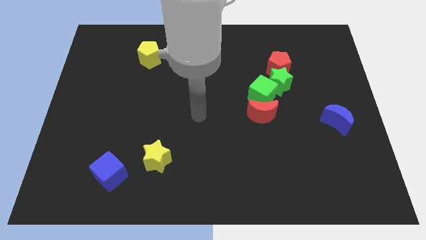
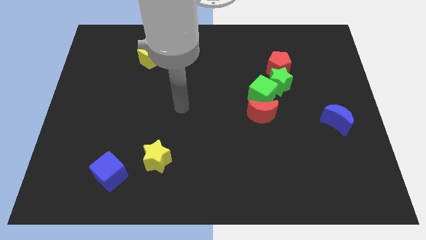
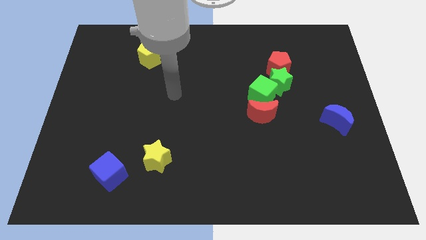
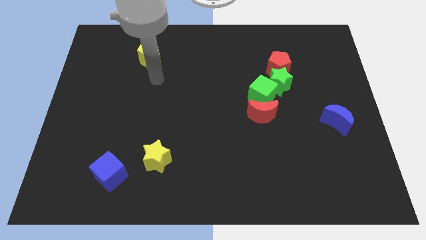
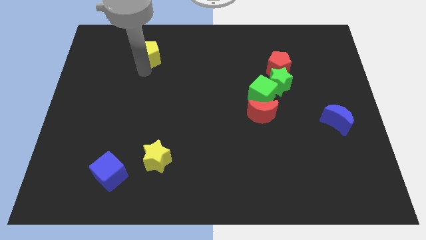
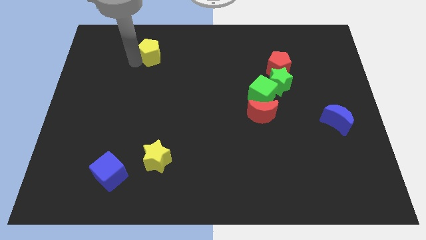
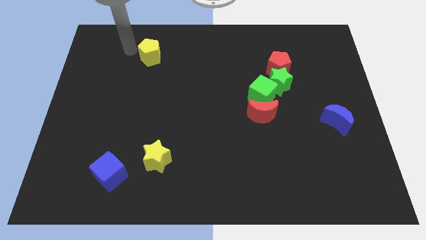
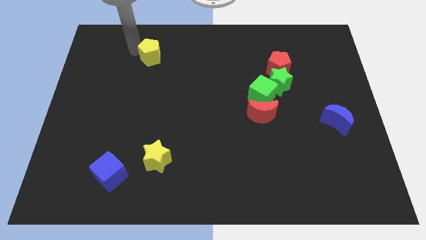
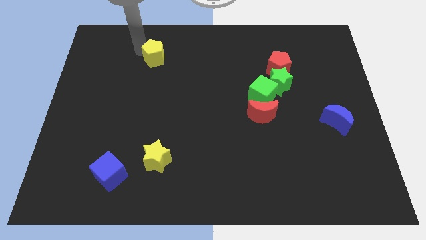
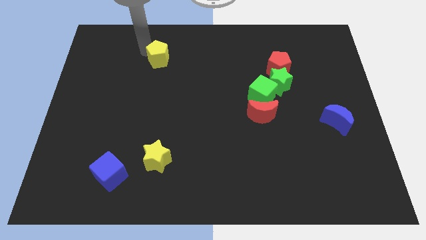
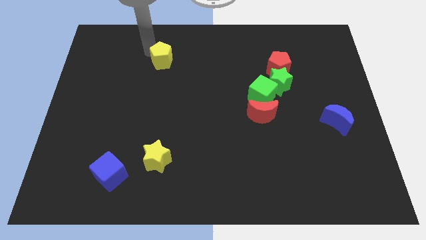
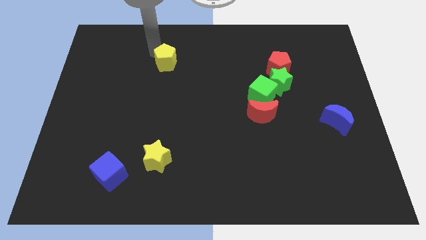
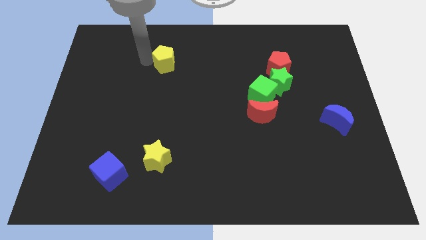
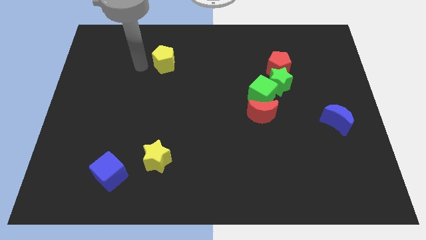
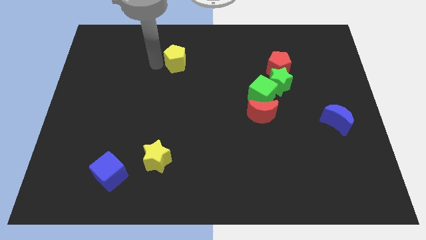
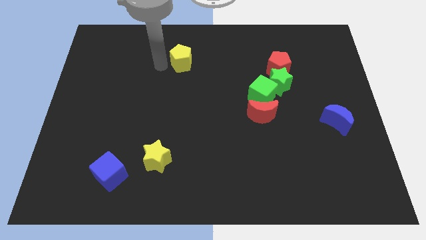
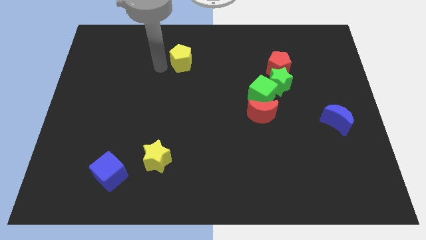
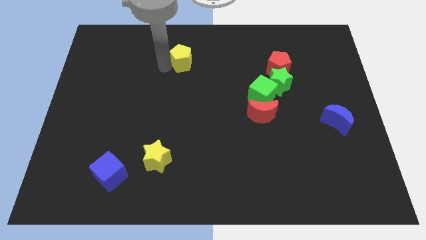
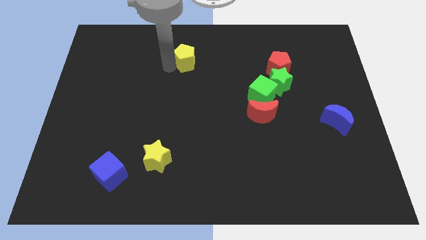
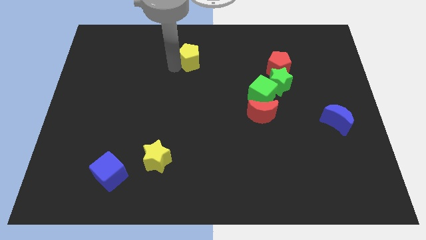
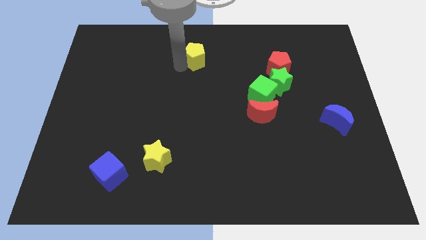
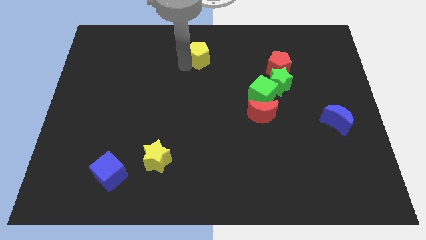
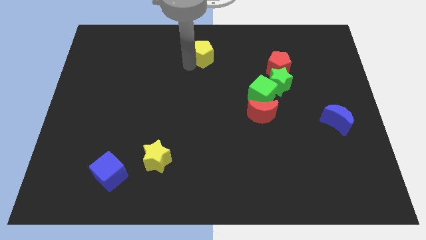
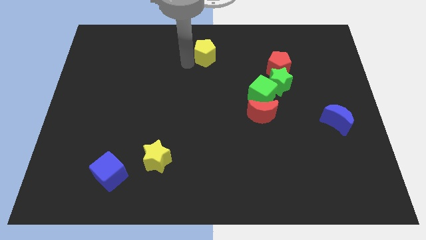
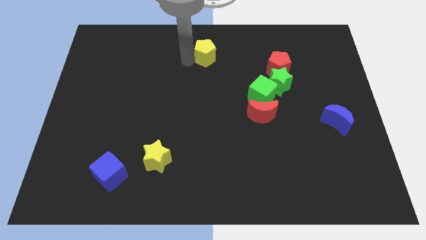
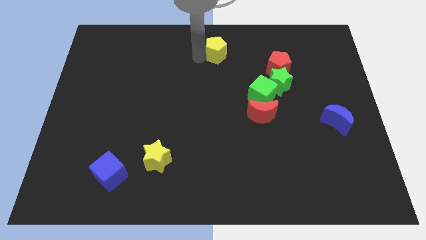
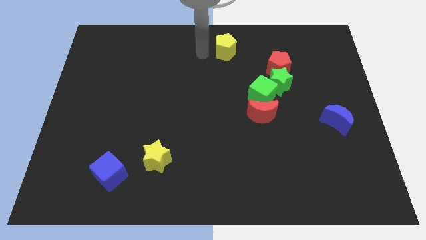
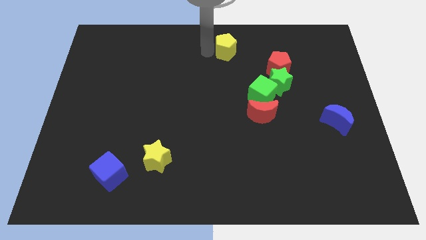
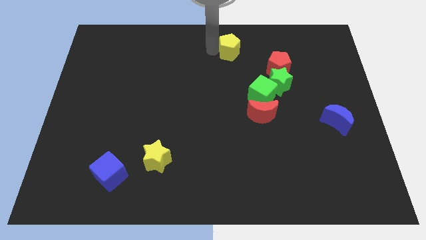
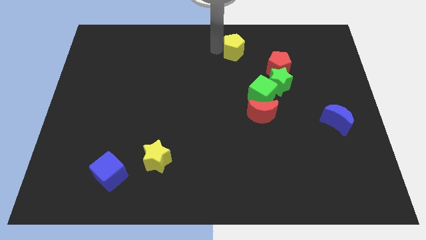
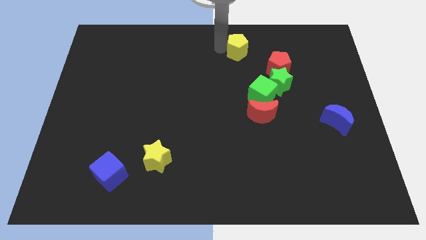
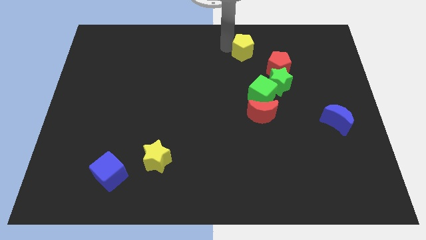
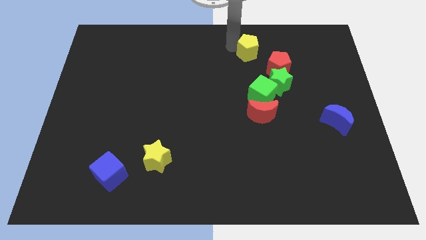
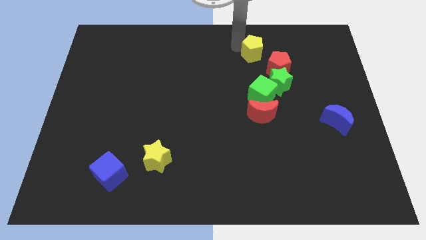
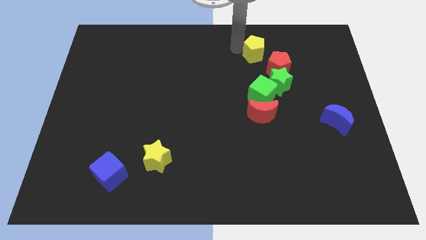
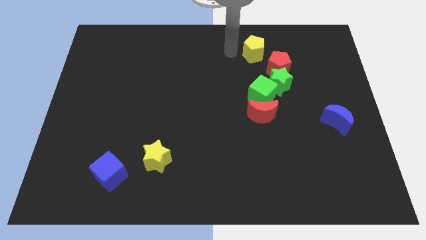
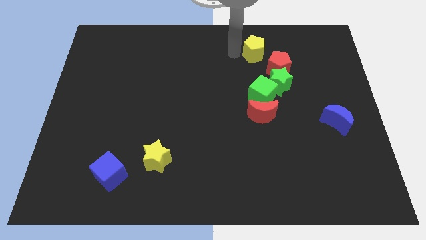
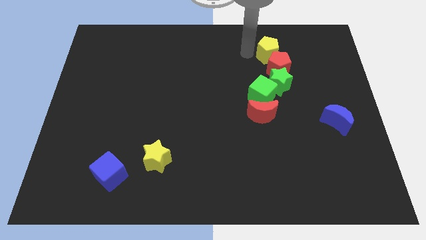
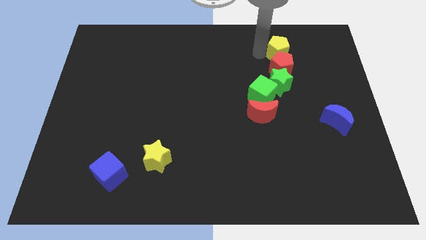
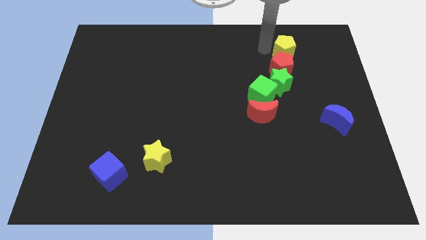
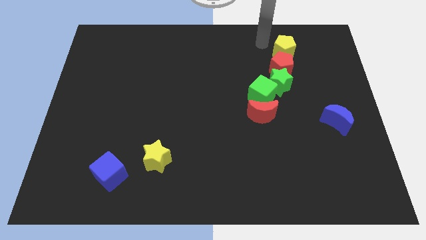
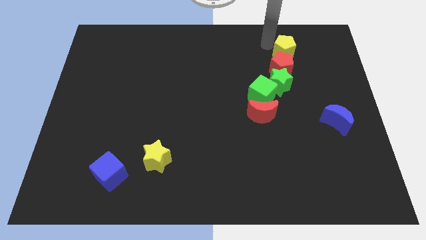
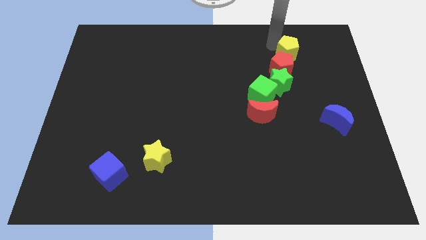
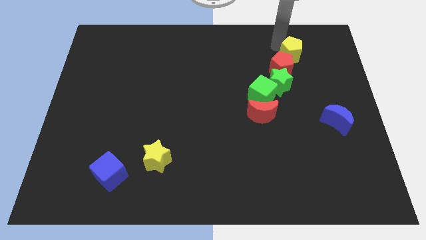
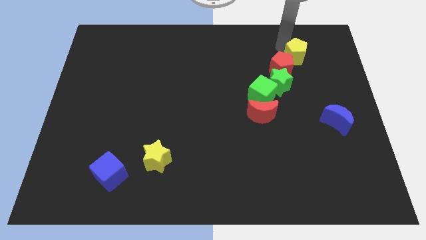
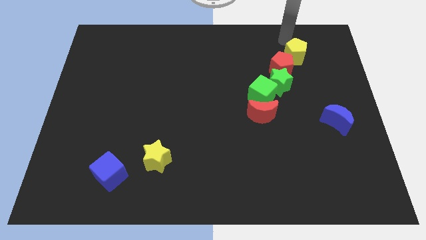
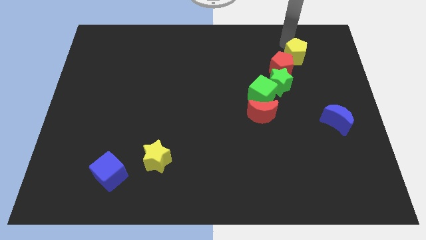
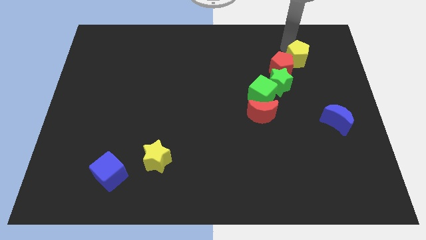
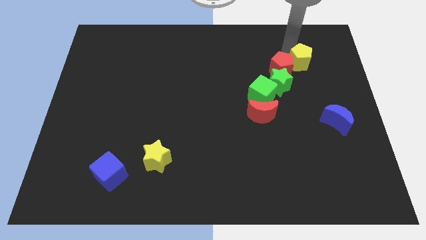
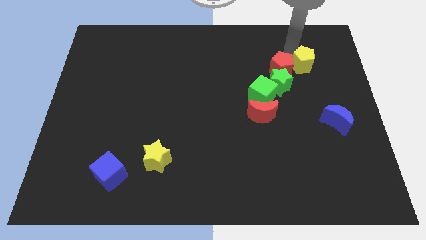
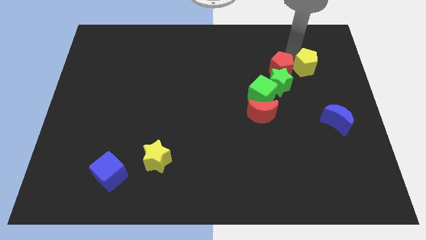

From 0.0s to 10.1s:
put the yellow pentagon diagonally down and to the right of the red pentagon

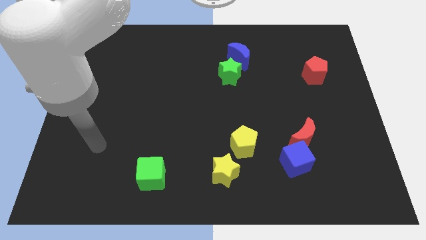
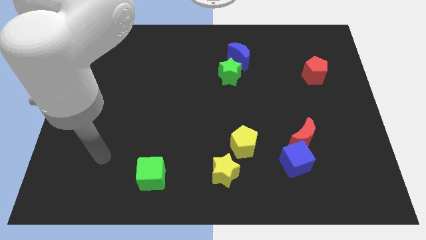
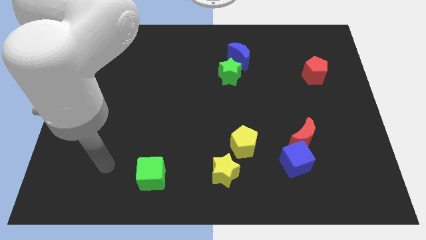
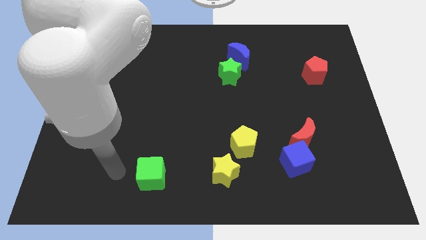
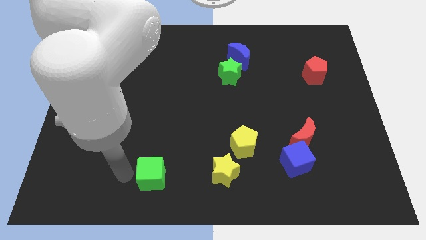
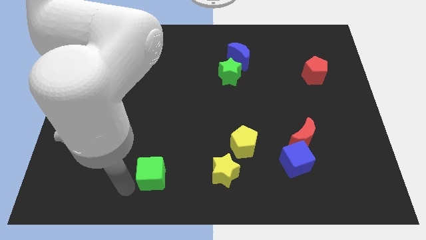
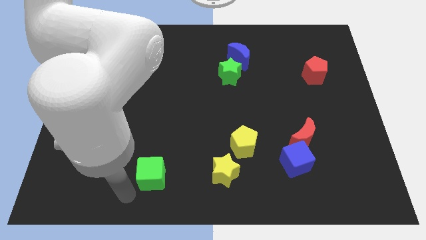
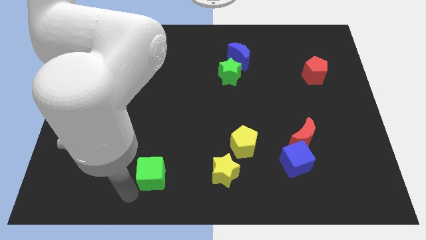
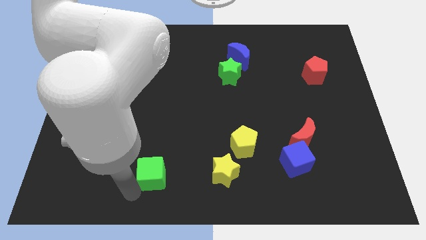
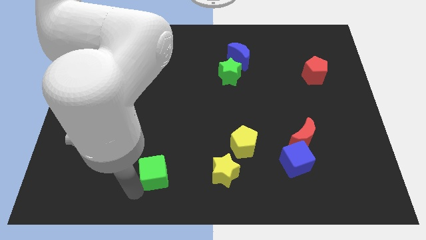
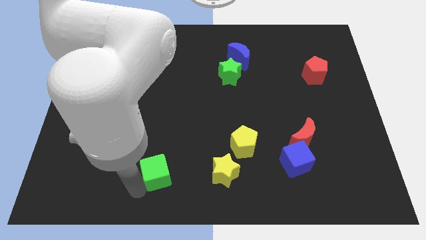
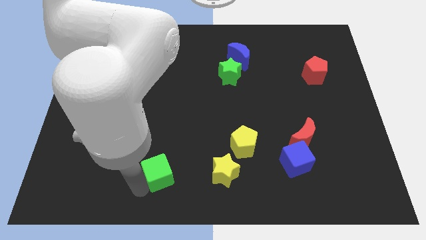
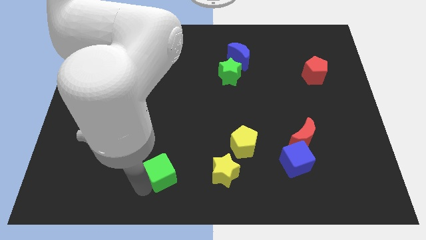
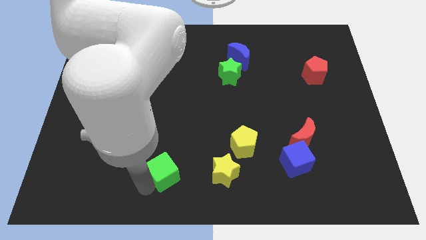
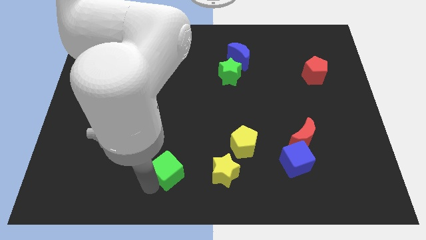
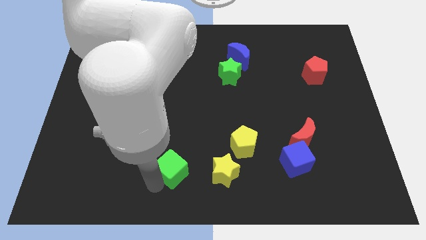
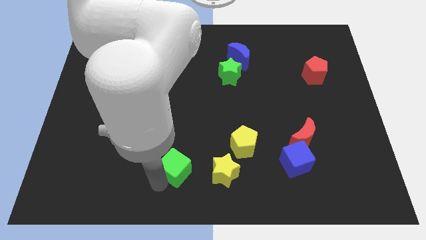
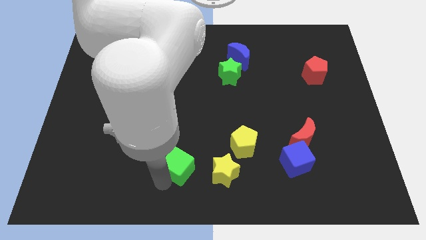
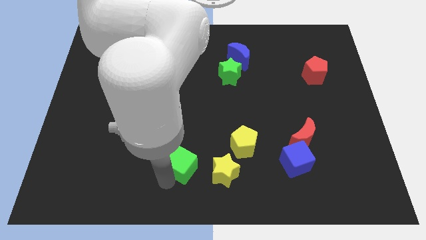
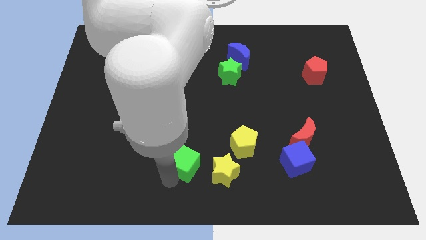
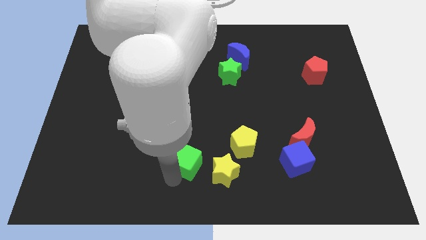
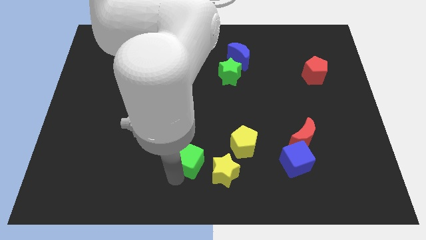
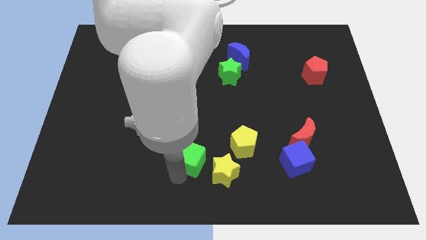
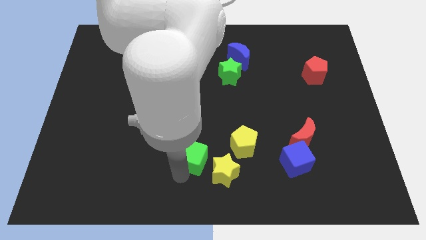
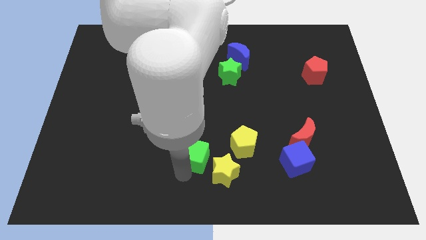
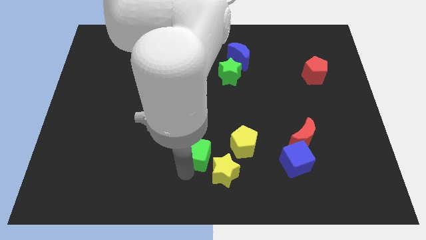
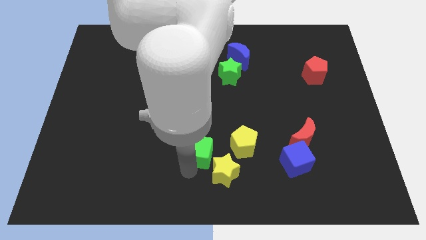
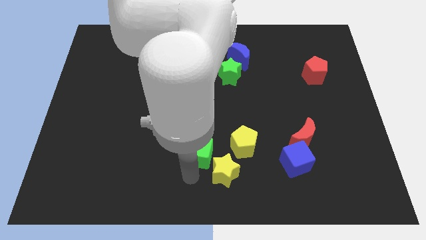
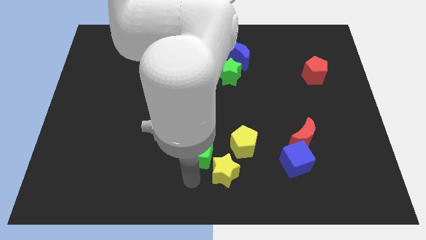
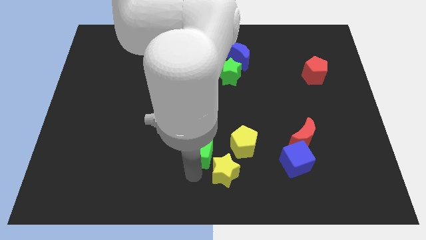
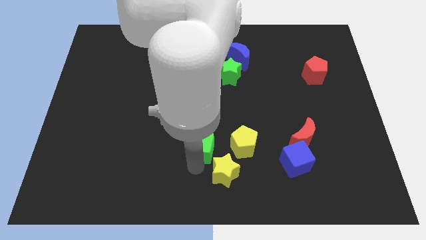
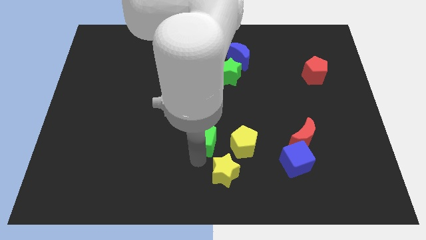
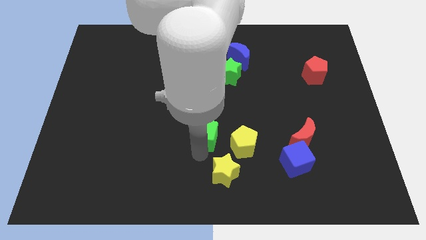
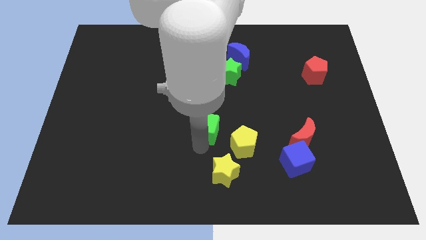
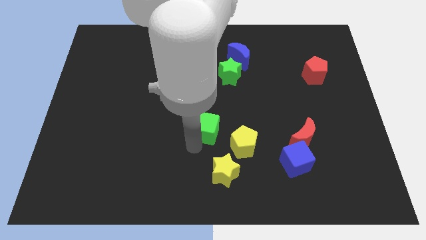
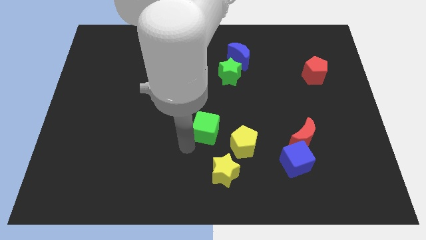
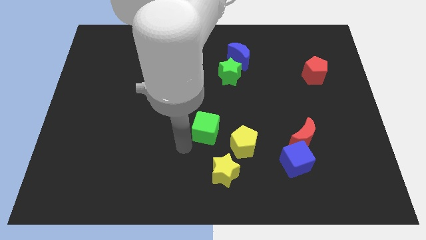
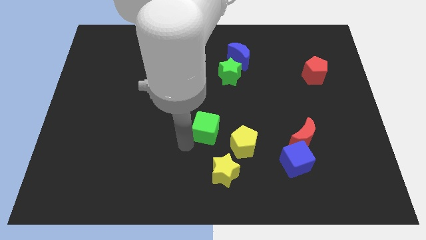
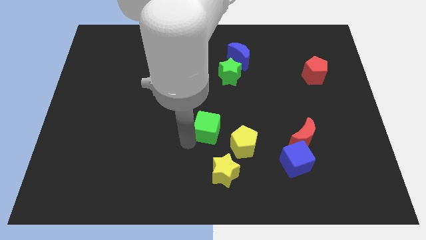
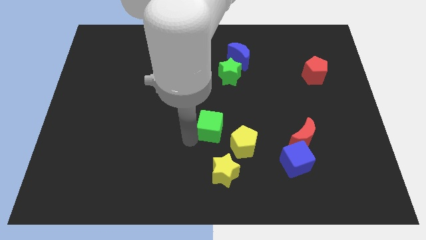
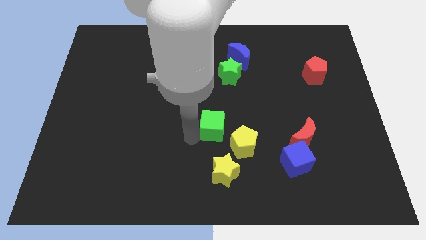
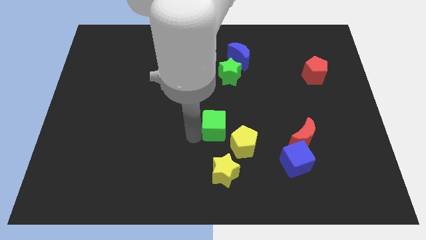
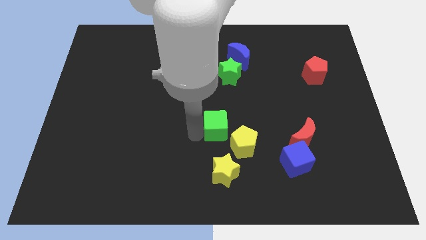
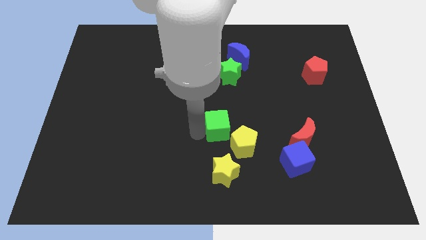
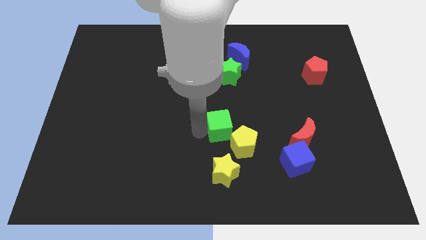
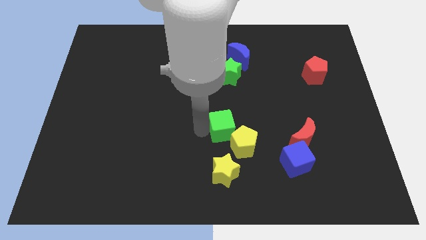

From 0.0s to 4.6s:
move the green cube to the top of the yellow pentagon
